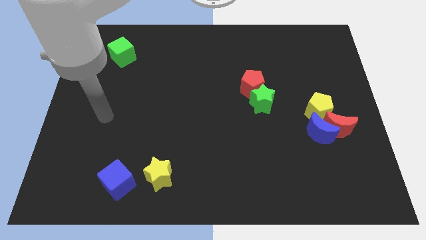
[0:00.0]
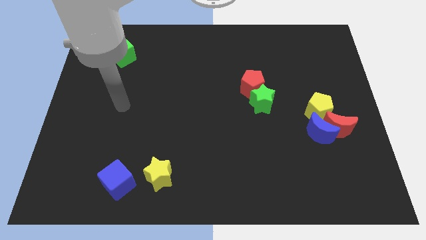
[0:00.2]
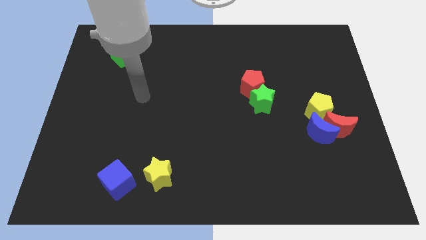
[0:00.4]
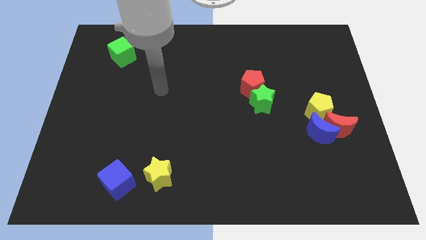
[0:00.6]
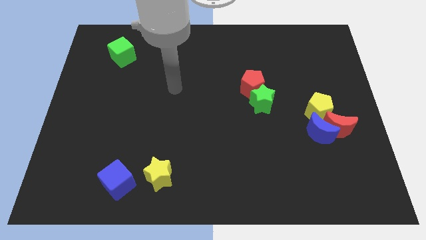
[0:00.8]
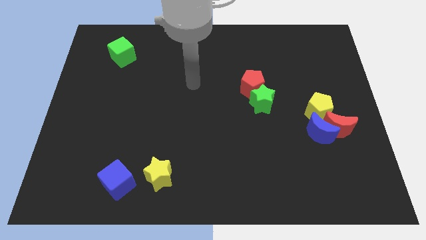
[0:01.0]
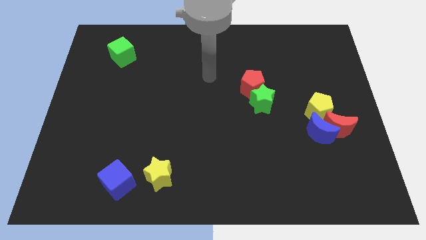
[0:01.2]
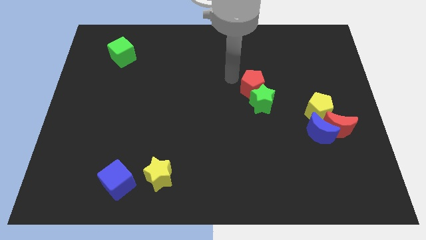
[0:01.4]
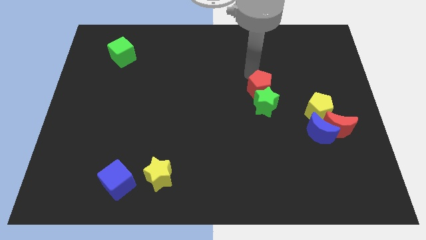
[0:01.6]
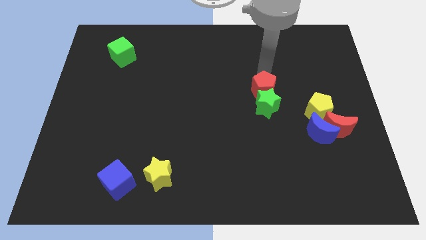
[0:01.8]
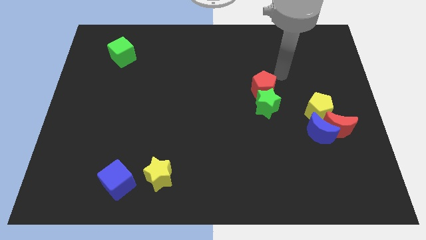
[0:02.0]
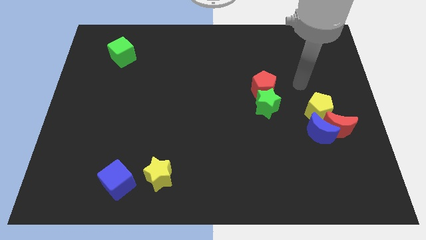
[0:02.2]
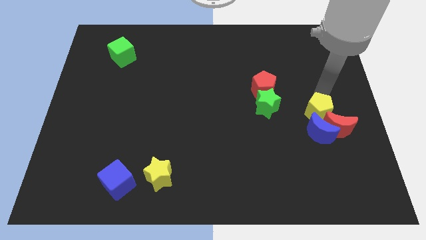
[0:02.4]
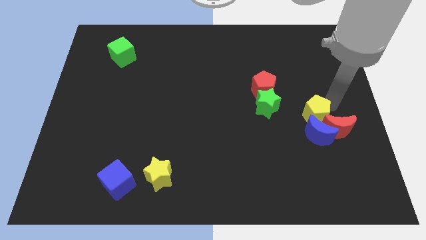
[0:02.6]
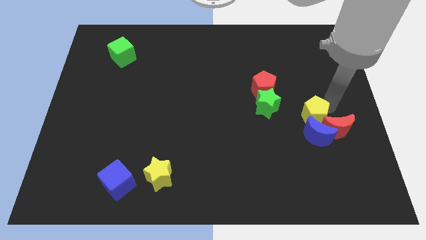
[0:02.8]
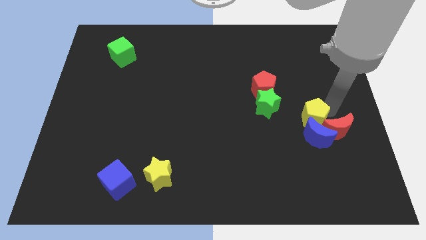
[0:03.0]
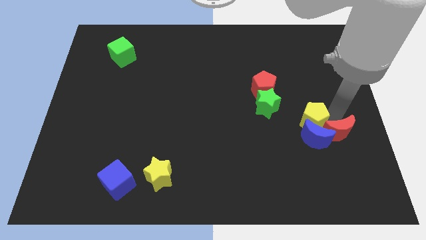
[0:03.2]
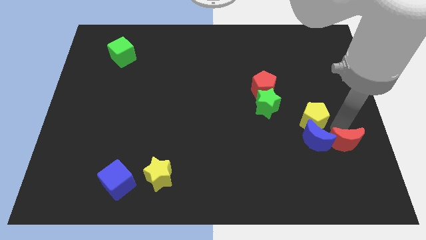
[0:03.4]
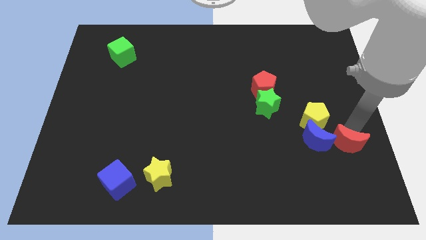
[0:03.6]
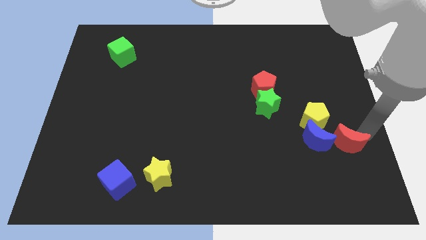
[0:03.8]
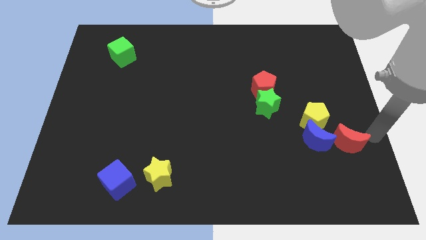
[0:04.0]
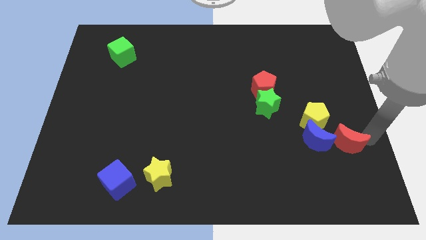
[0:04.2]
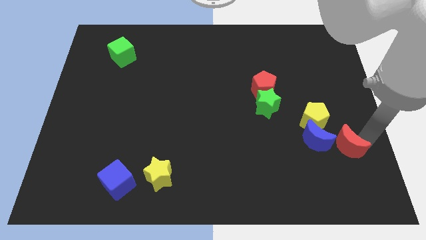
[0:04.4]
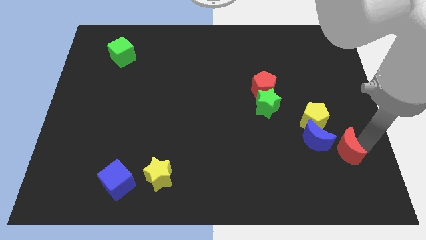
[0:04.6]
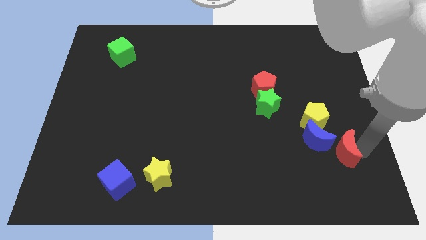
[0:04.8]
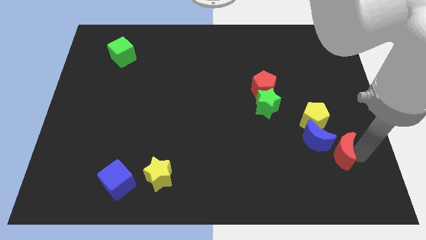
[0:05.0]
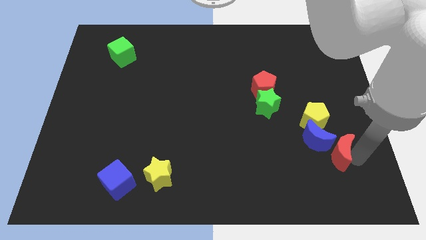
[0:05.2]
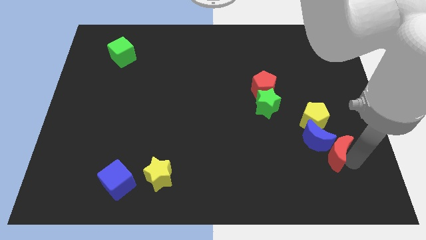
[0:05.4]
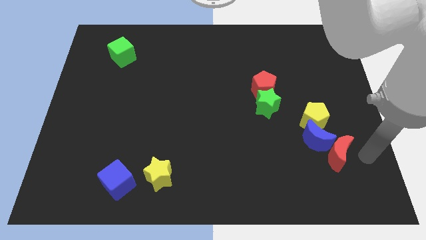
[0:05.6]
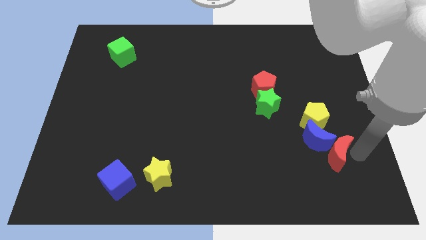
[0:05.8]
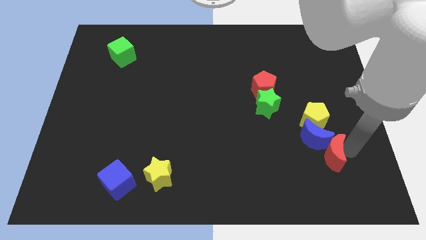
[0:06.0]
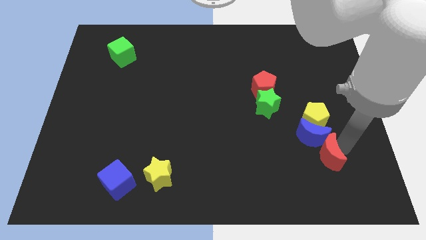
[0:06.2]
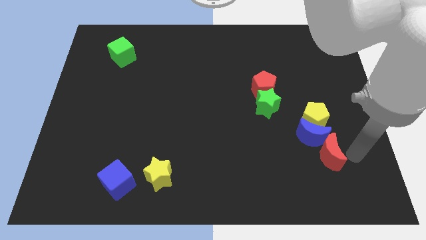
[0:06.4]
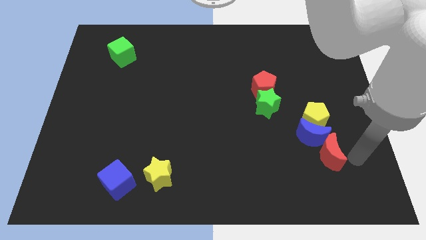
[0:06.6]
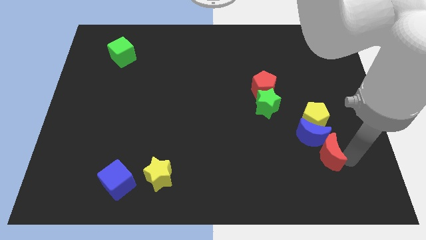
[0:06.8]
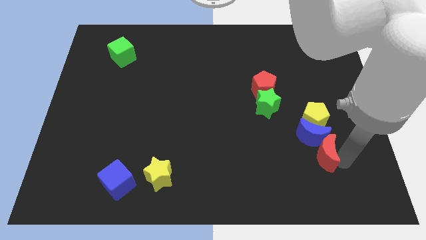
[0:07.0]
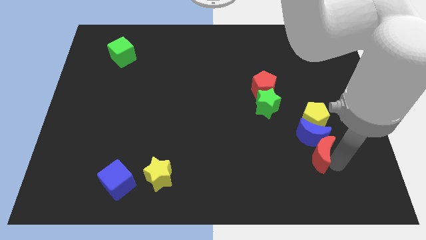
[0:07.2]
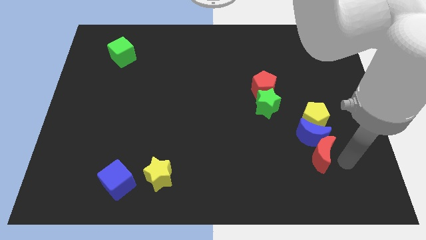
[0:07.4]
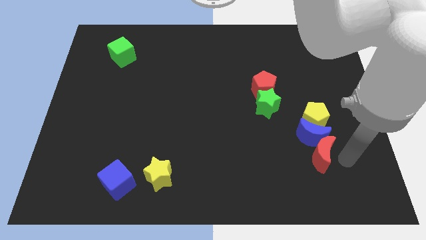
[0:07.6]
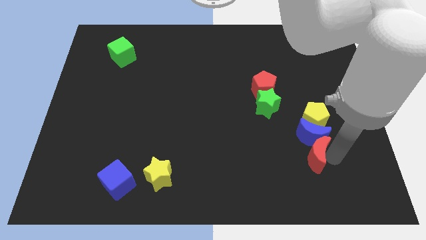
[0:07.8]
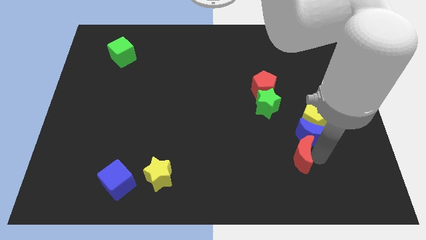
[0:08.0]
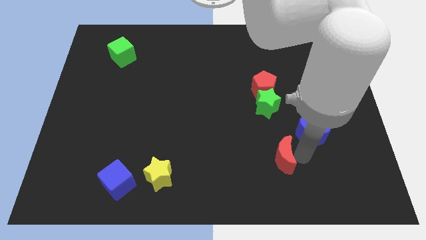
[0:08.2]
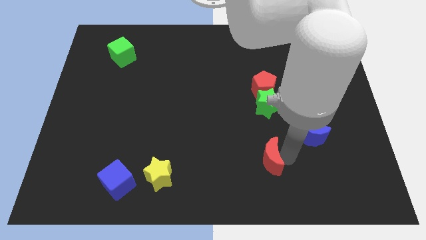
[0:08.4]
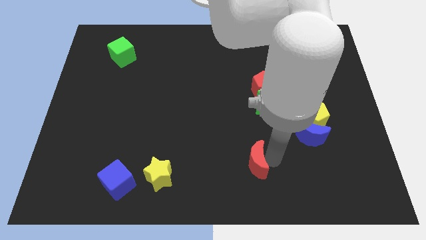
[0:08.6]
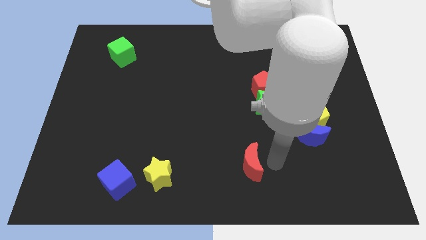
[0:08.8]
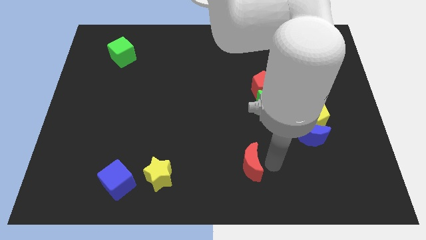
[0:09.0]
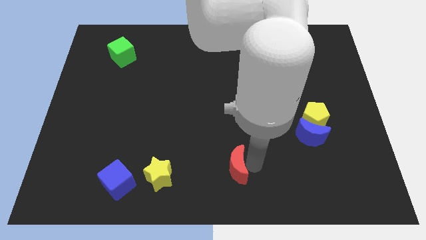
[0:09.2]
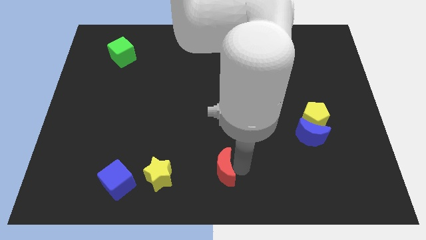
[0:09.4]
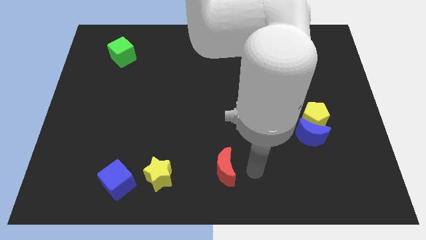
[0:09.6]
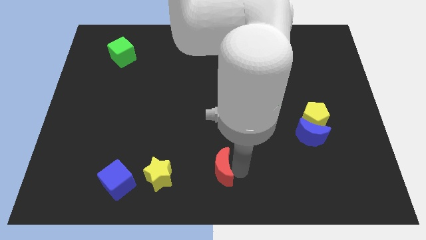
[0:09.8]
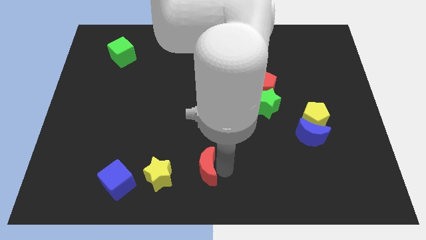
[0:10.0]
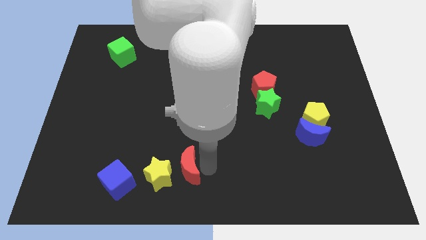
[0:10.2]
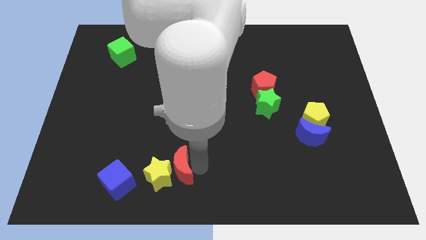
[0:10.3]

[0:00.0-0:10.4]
push the red moon next to the yellow star

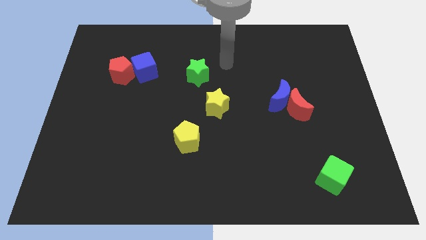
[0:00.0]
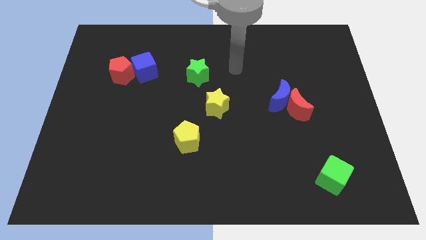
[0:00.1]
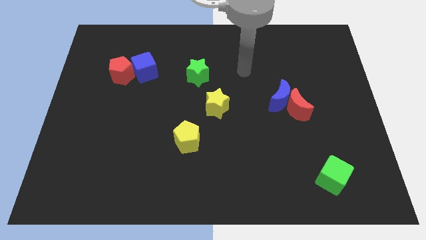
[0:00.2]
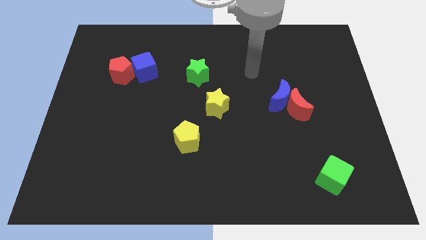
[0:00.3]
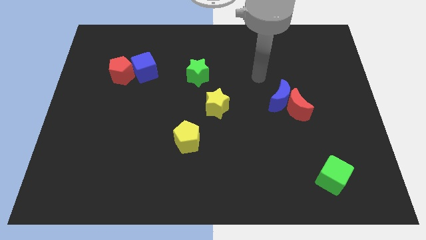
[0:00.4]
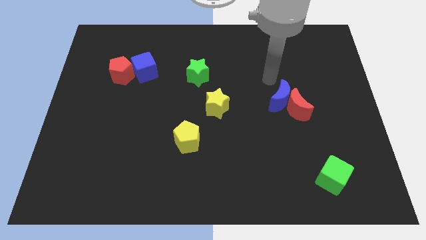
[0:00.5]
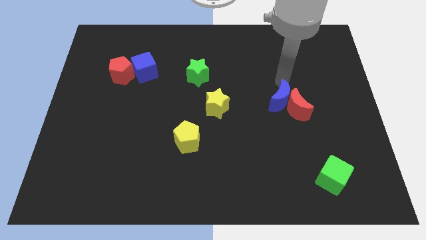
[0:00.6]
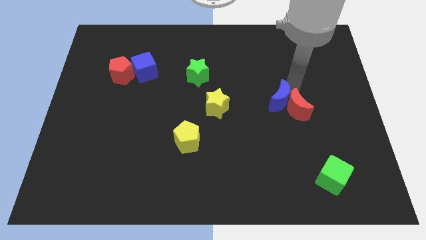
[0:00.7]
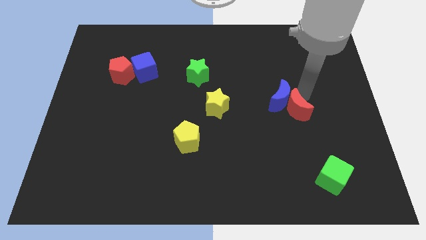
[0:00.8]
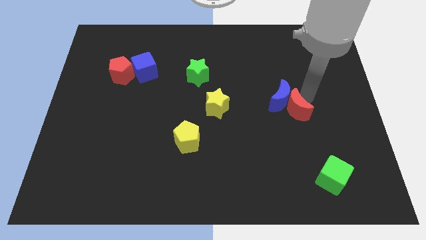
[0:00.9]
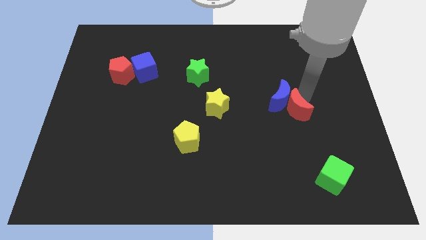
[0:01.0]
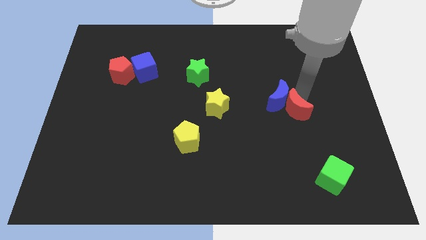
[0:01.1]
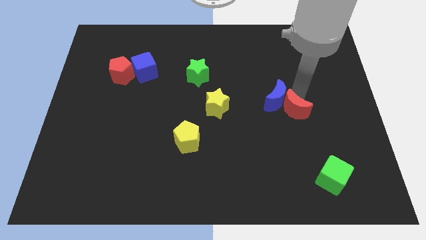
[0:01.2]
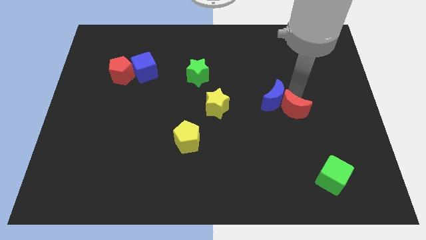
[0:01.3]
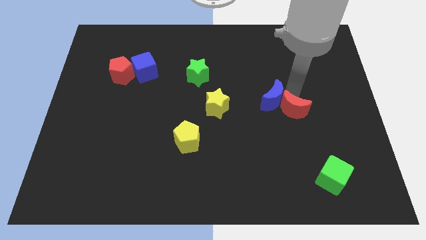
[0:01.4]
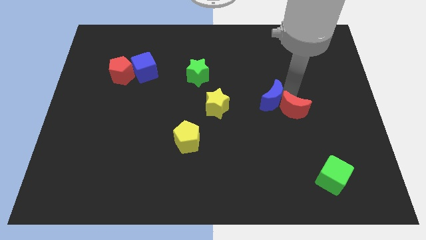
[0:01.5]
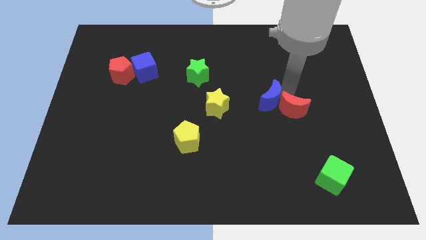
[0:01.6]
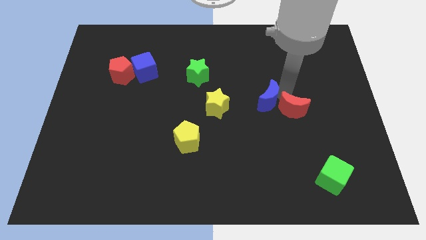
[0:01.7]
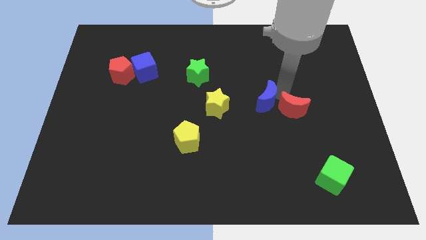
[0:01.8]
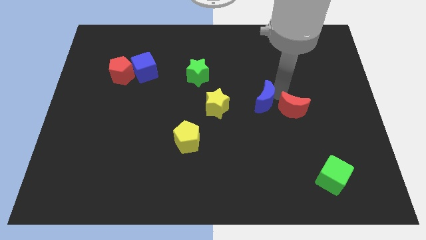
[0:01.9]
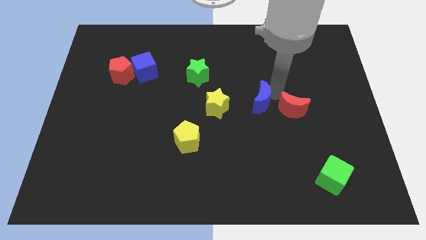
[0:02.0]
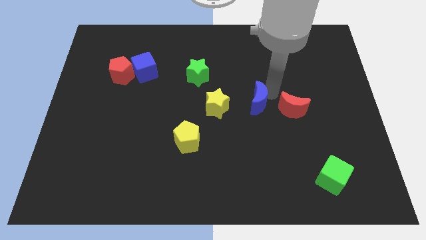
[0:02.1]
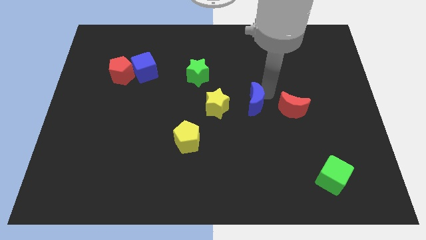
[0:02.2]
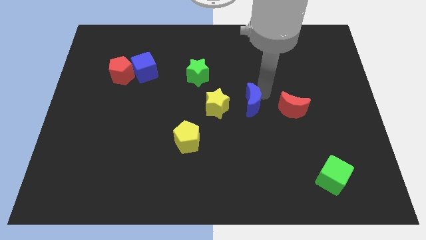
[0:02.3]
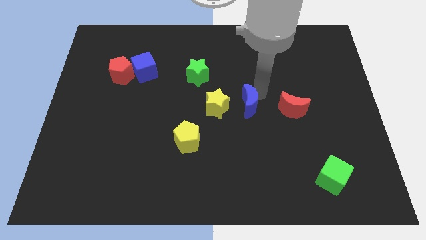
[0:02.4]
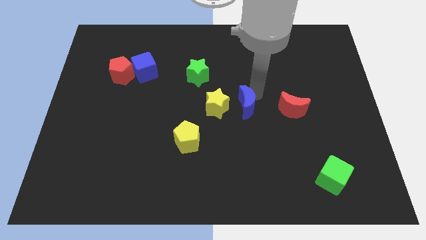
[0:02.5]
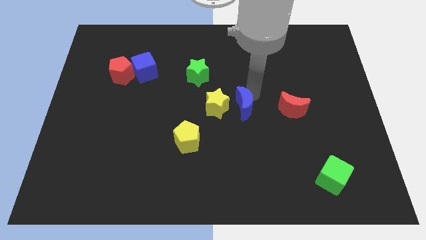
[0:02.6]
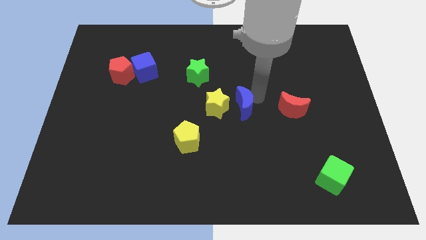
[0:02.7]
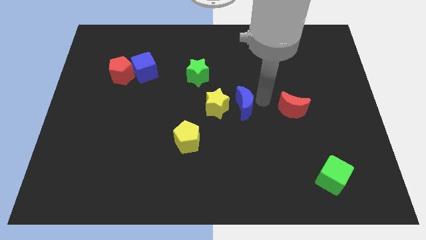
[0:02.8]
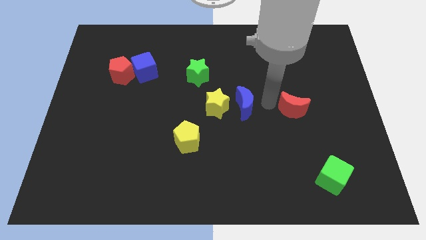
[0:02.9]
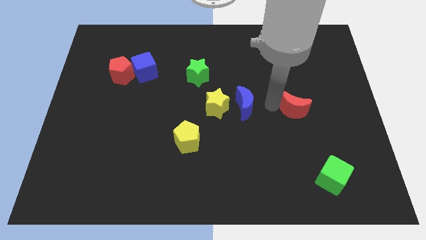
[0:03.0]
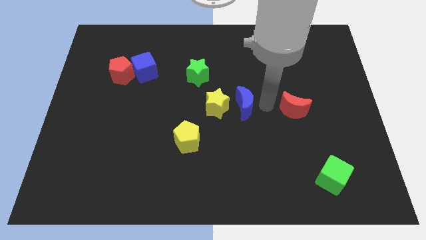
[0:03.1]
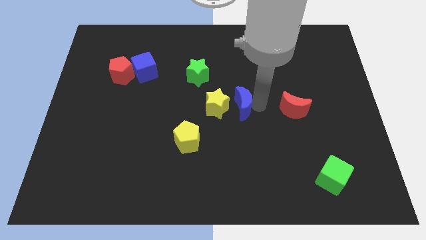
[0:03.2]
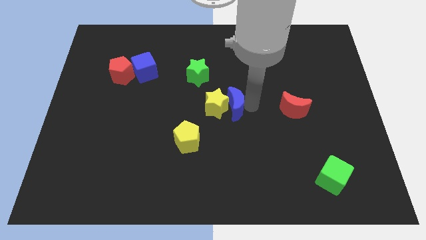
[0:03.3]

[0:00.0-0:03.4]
move the blue moon towards the yellow star

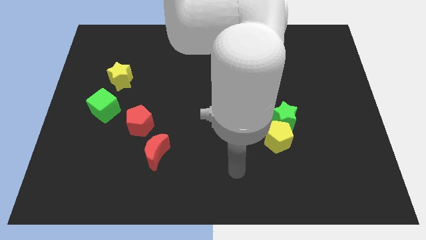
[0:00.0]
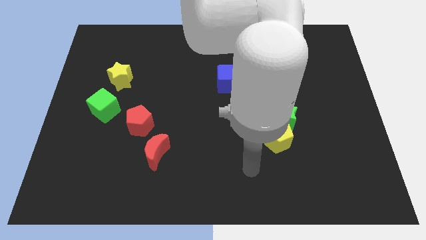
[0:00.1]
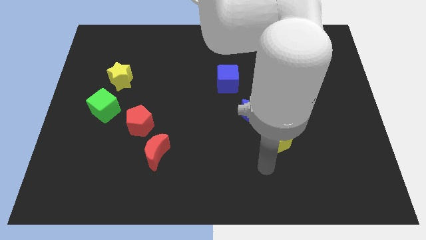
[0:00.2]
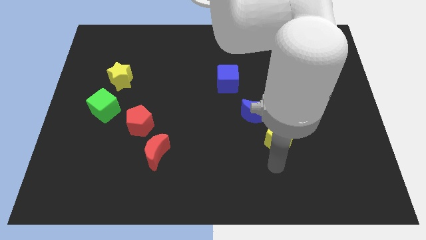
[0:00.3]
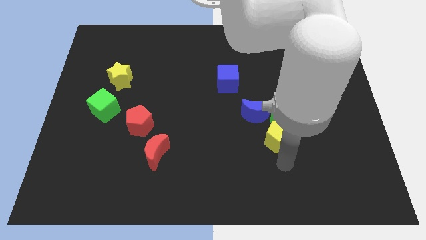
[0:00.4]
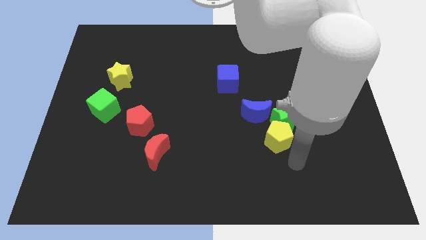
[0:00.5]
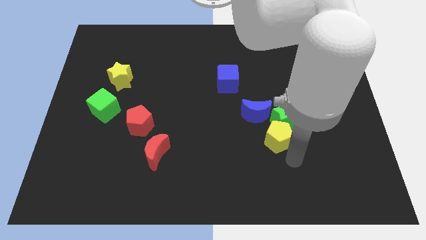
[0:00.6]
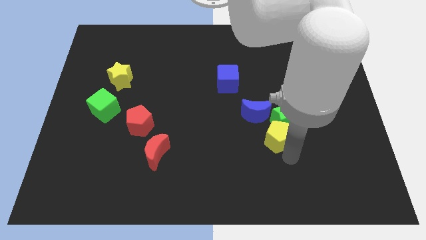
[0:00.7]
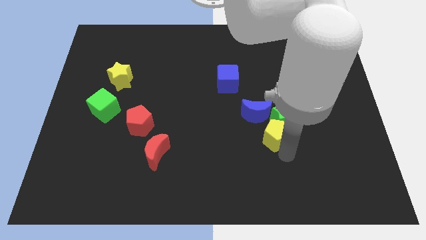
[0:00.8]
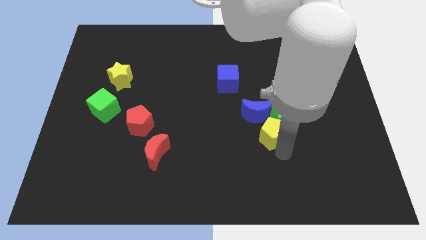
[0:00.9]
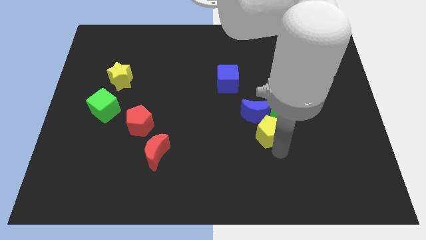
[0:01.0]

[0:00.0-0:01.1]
slide the yellow pentagon to the blue moon
